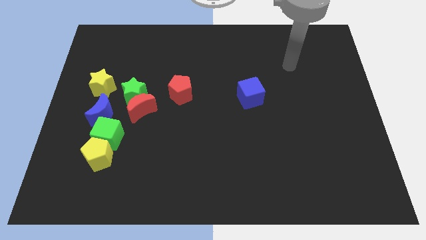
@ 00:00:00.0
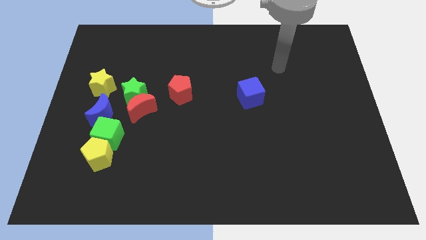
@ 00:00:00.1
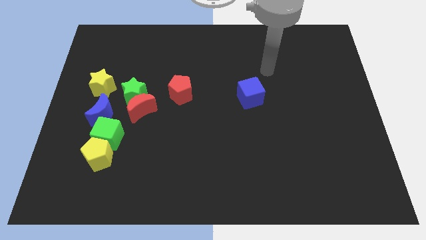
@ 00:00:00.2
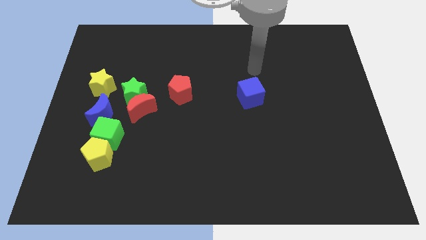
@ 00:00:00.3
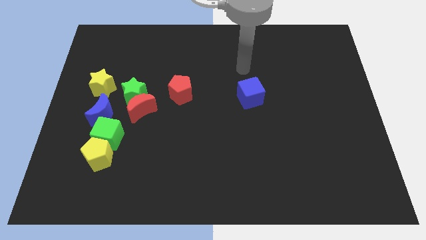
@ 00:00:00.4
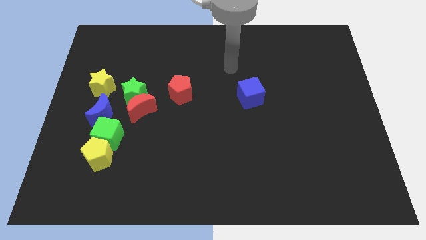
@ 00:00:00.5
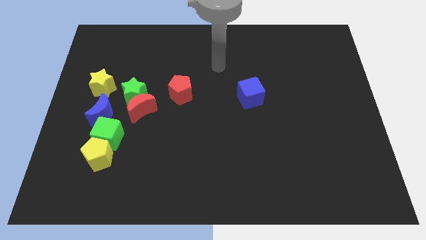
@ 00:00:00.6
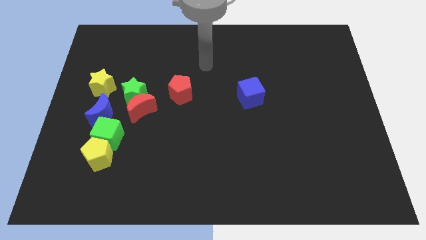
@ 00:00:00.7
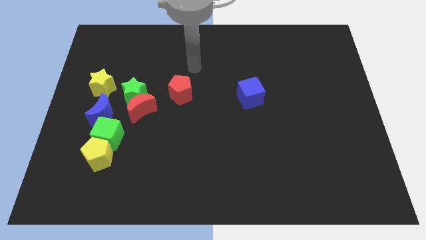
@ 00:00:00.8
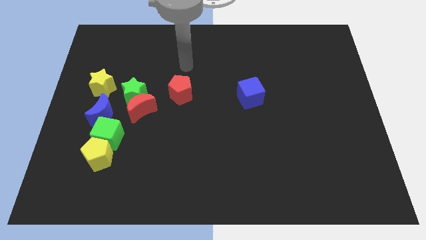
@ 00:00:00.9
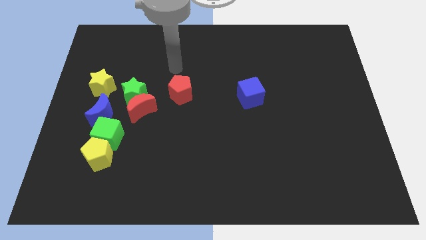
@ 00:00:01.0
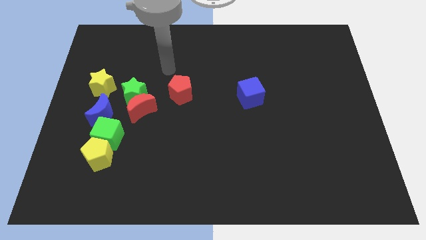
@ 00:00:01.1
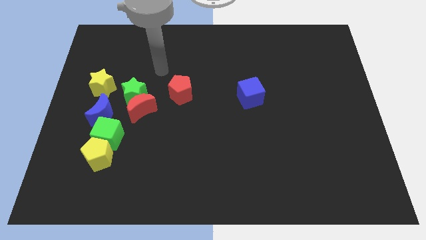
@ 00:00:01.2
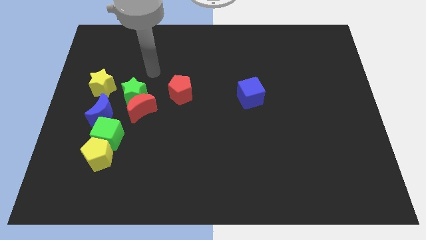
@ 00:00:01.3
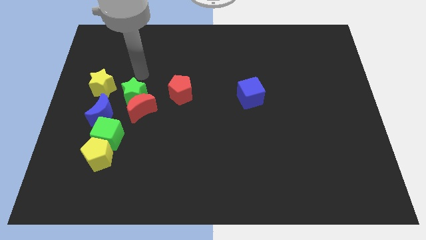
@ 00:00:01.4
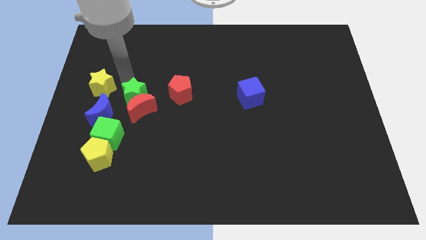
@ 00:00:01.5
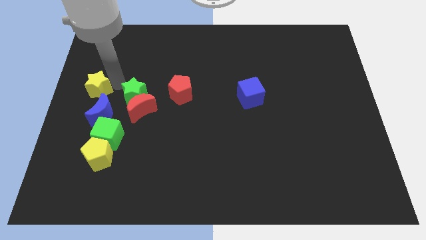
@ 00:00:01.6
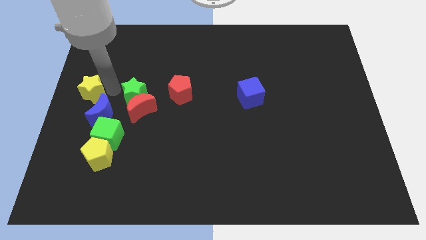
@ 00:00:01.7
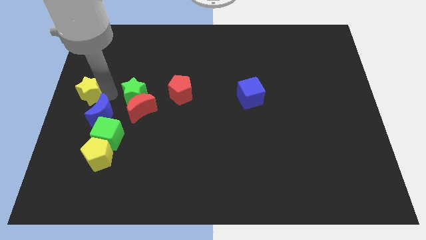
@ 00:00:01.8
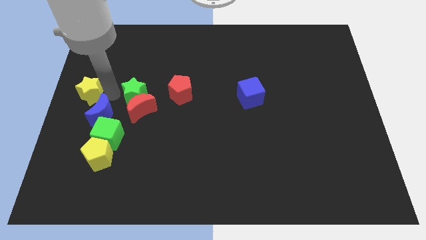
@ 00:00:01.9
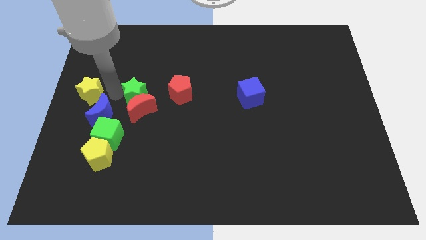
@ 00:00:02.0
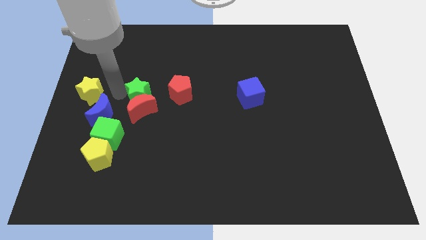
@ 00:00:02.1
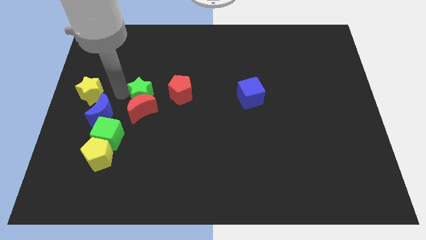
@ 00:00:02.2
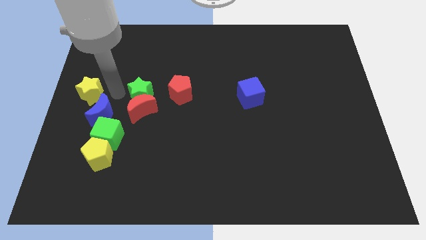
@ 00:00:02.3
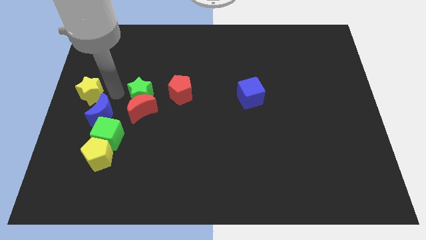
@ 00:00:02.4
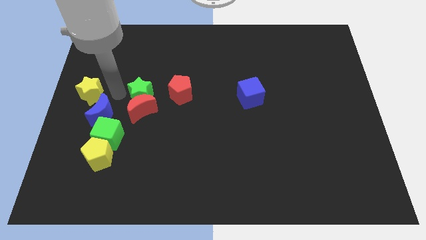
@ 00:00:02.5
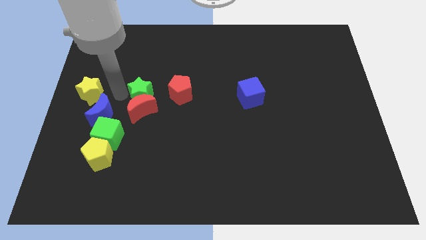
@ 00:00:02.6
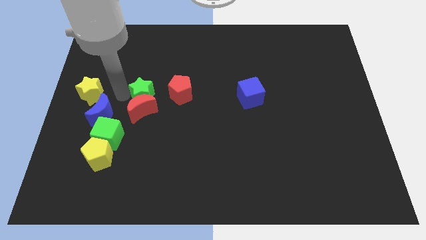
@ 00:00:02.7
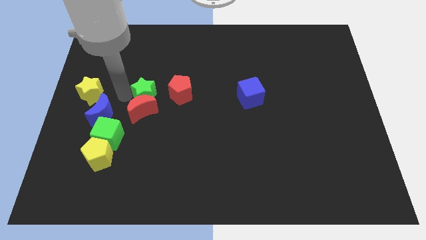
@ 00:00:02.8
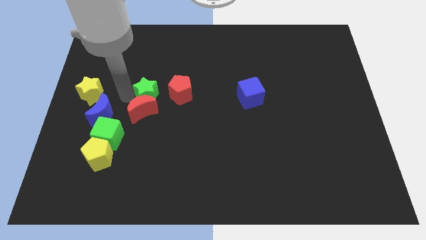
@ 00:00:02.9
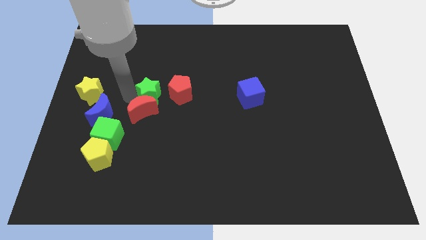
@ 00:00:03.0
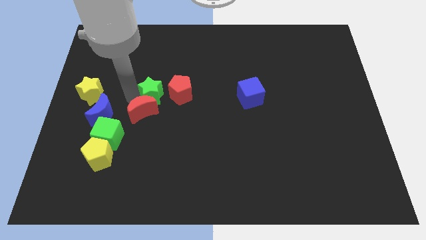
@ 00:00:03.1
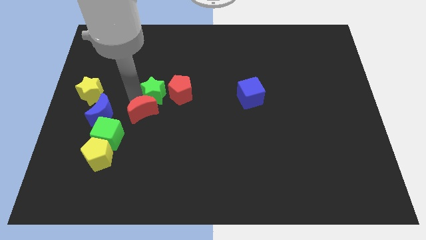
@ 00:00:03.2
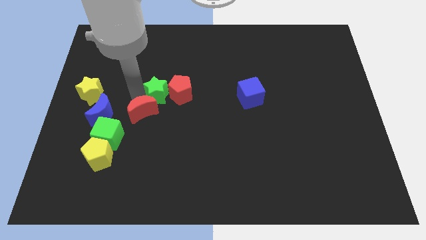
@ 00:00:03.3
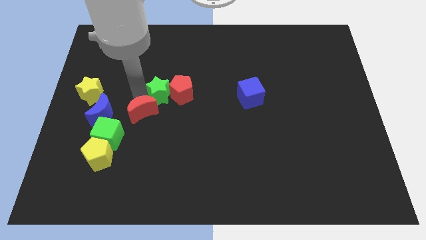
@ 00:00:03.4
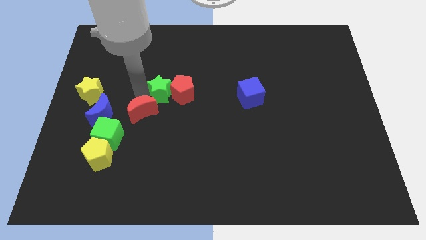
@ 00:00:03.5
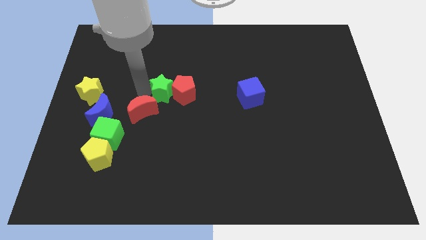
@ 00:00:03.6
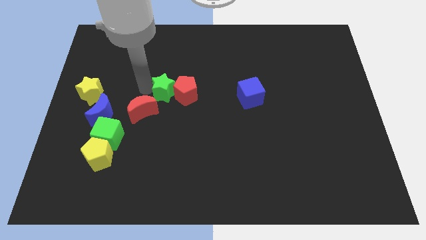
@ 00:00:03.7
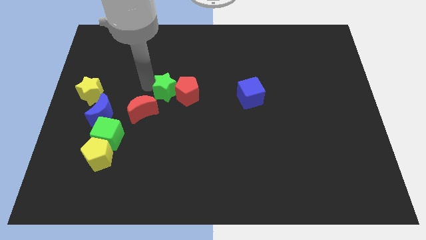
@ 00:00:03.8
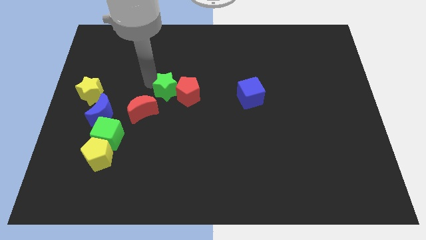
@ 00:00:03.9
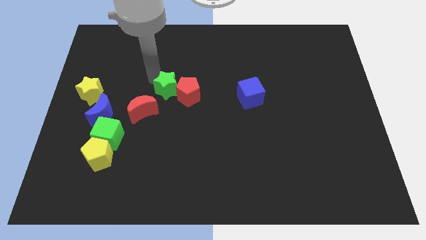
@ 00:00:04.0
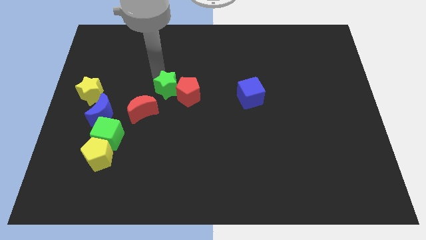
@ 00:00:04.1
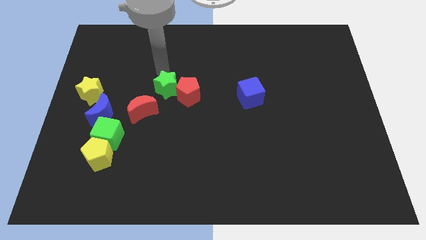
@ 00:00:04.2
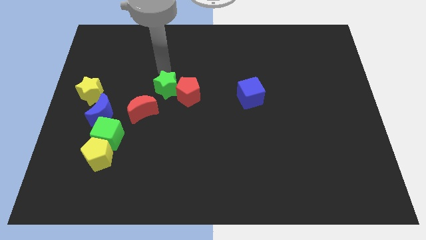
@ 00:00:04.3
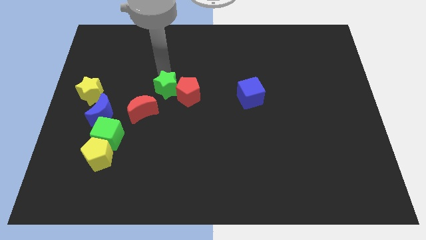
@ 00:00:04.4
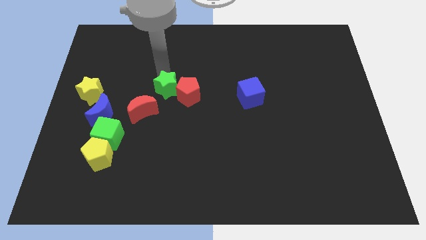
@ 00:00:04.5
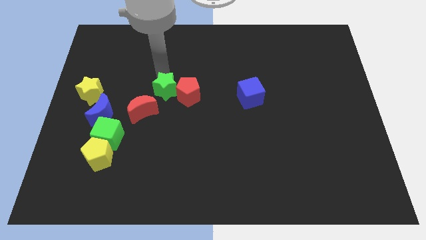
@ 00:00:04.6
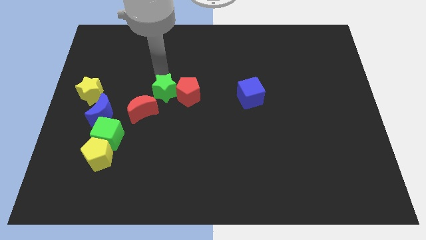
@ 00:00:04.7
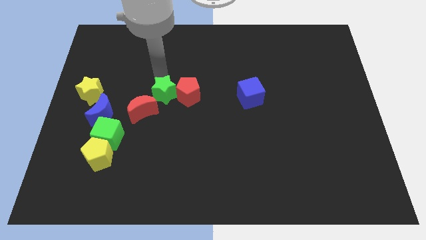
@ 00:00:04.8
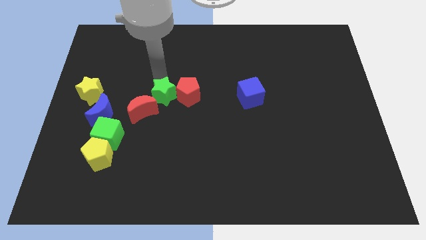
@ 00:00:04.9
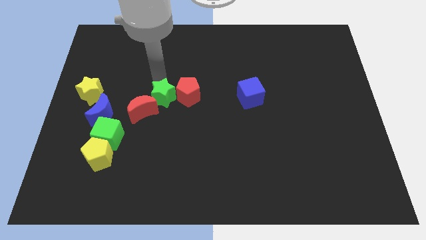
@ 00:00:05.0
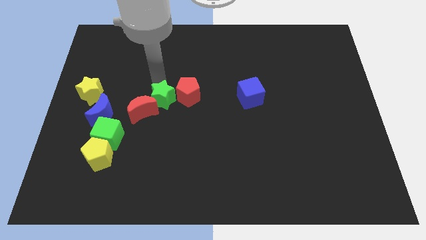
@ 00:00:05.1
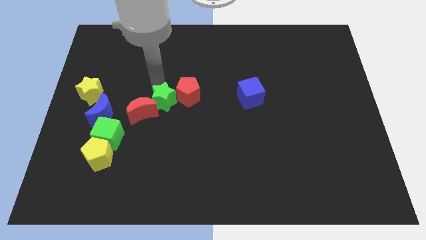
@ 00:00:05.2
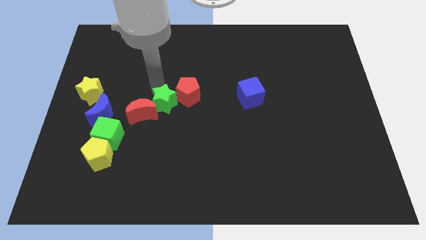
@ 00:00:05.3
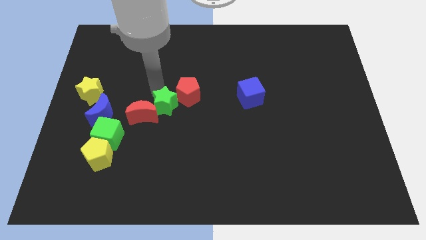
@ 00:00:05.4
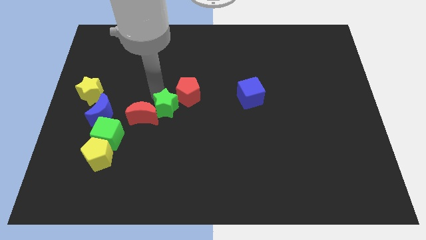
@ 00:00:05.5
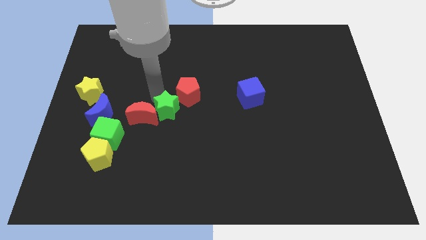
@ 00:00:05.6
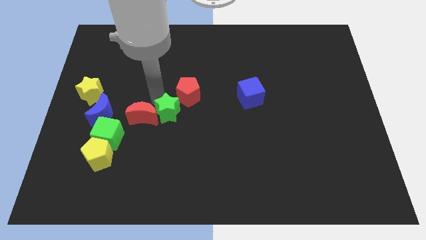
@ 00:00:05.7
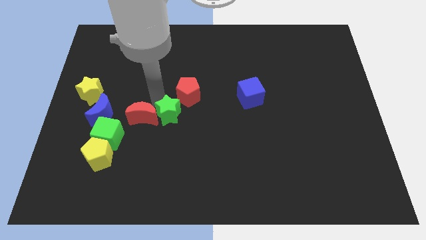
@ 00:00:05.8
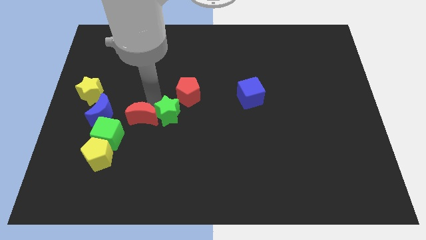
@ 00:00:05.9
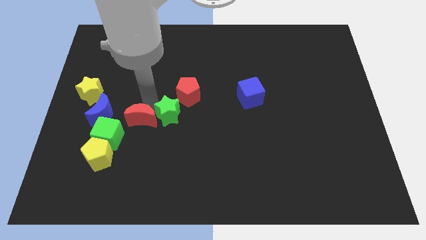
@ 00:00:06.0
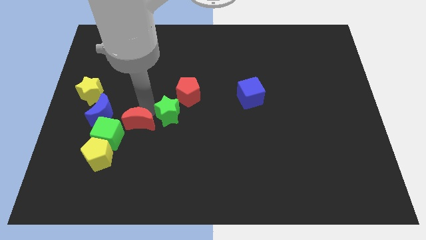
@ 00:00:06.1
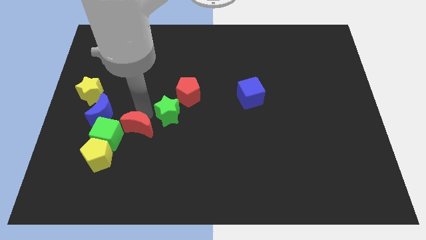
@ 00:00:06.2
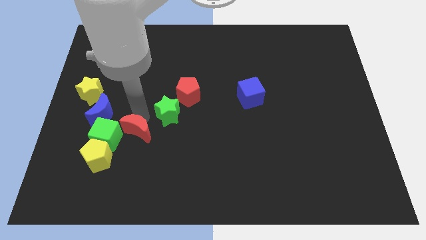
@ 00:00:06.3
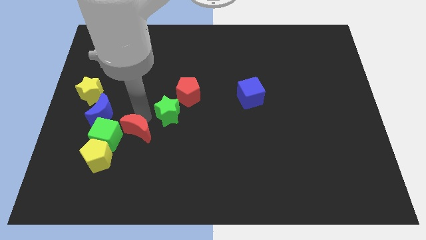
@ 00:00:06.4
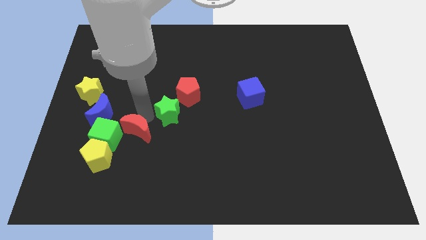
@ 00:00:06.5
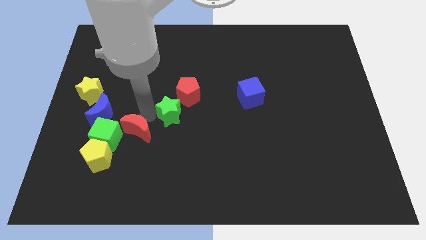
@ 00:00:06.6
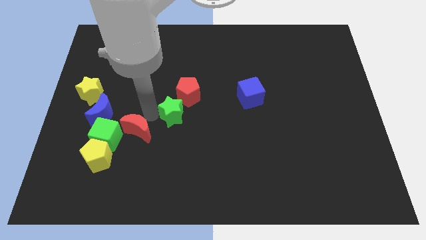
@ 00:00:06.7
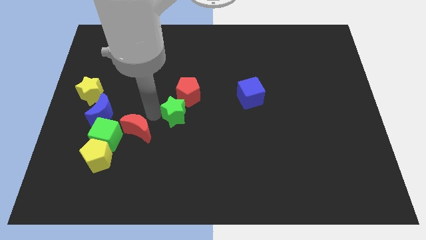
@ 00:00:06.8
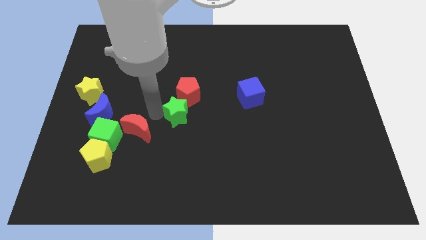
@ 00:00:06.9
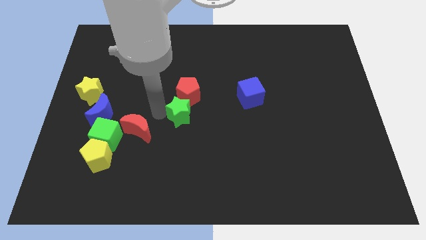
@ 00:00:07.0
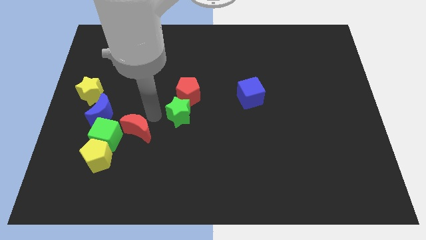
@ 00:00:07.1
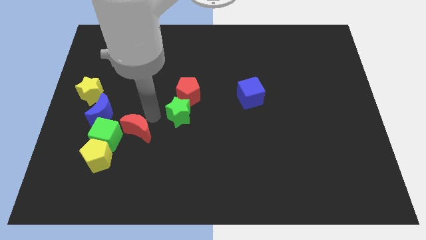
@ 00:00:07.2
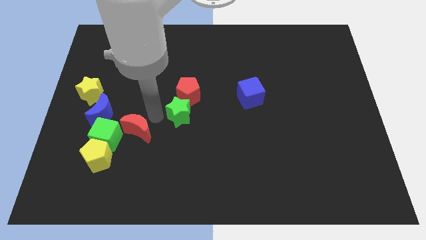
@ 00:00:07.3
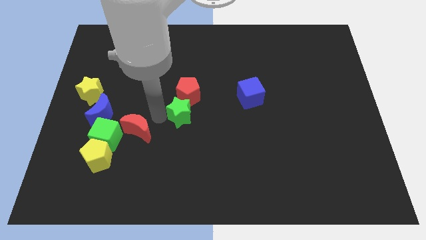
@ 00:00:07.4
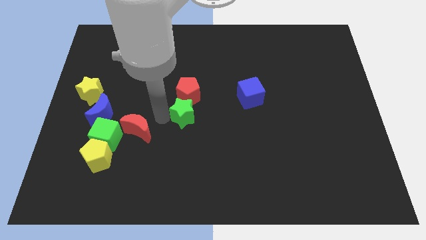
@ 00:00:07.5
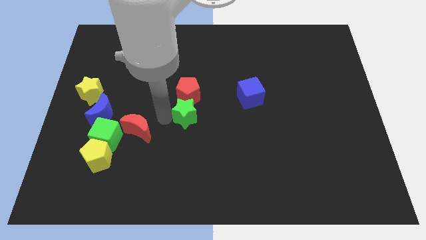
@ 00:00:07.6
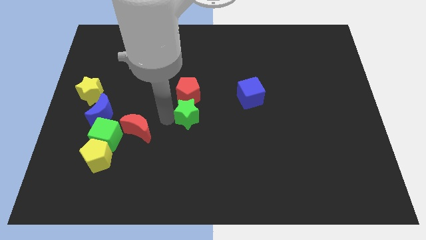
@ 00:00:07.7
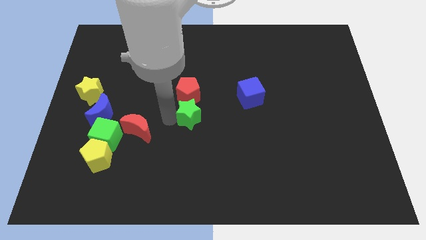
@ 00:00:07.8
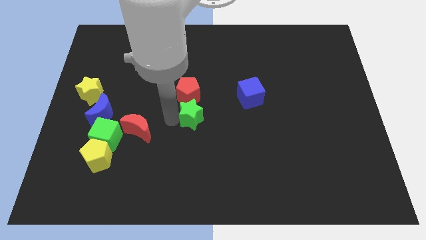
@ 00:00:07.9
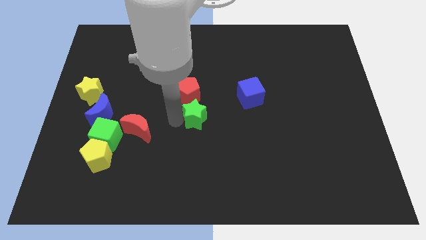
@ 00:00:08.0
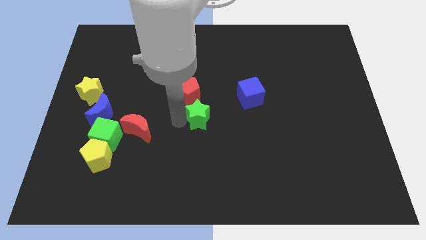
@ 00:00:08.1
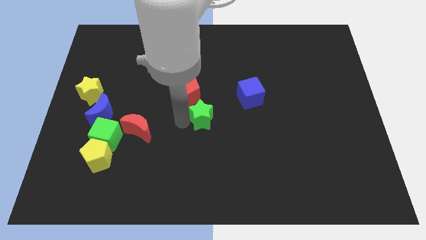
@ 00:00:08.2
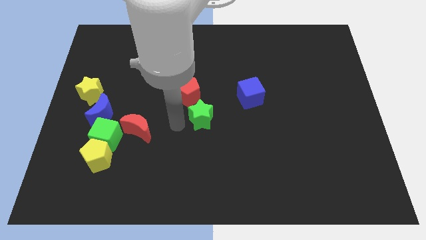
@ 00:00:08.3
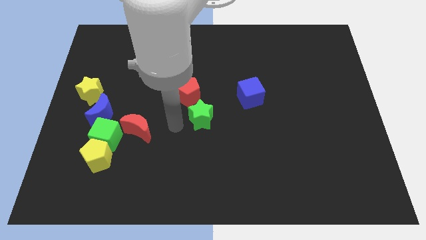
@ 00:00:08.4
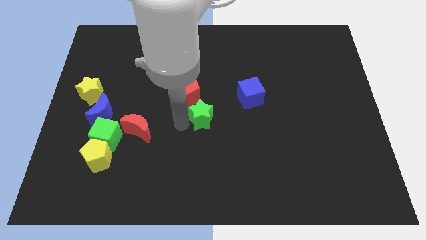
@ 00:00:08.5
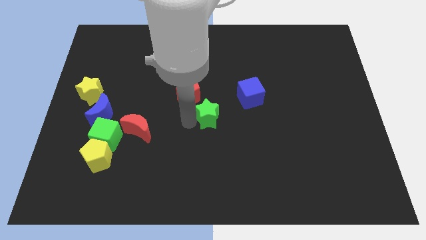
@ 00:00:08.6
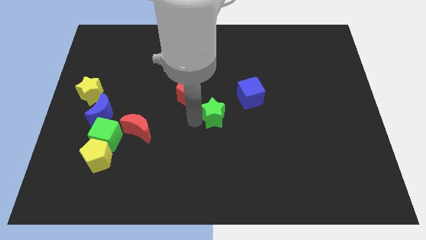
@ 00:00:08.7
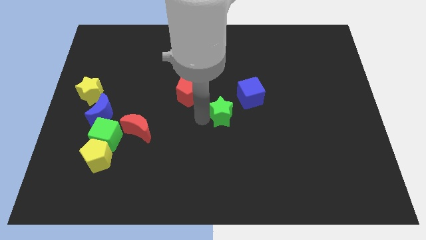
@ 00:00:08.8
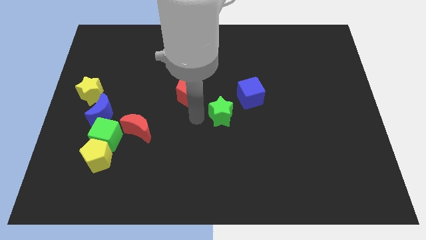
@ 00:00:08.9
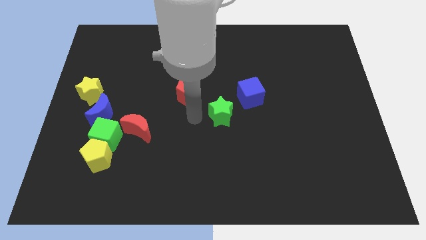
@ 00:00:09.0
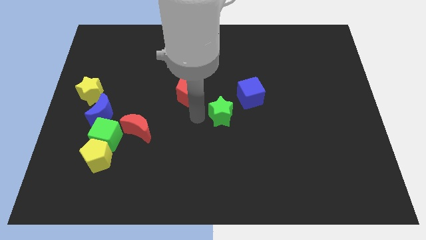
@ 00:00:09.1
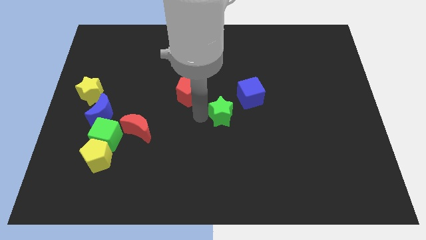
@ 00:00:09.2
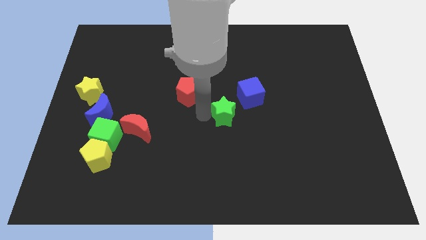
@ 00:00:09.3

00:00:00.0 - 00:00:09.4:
push the green star to the right
